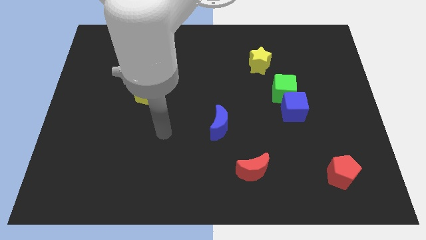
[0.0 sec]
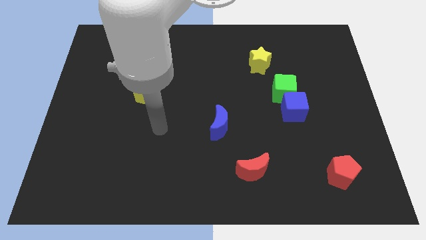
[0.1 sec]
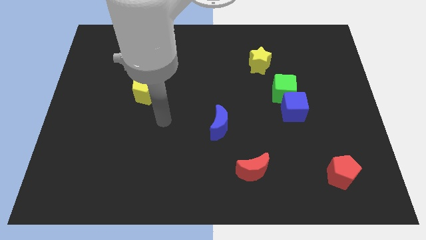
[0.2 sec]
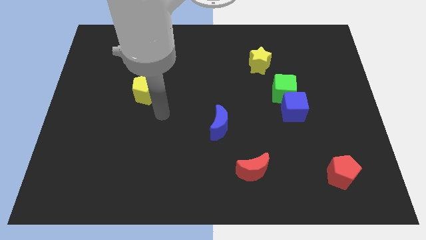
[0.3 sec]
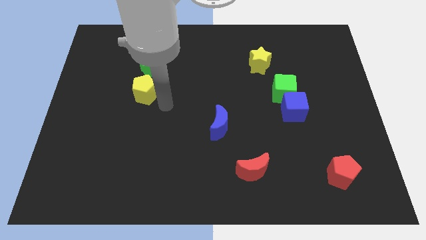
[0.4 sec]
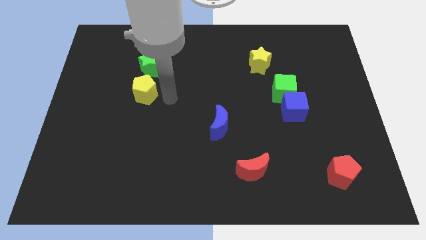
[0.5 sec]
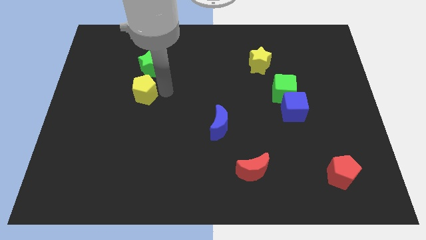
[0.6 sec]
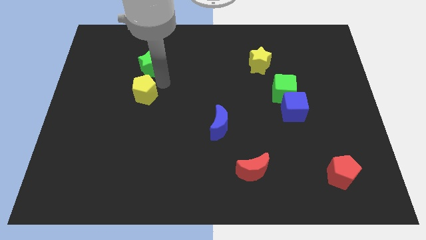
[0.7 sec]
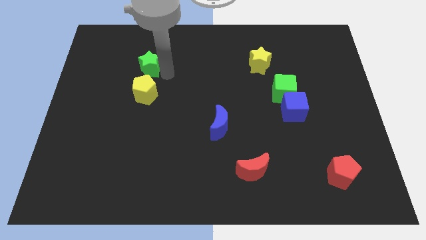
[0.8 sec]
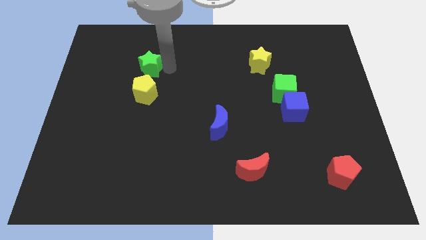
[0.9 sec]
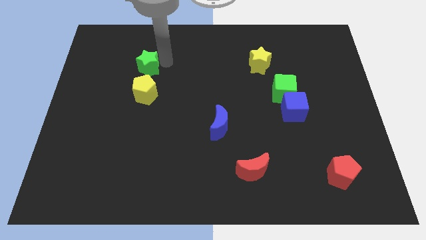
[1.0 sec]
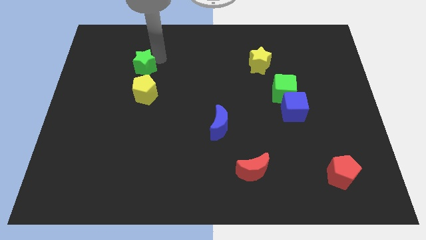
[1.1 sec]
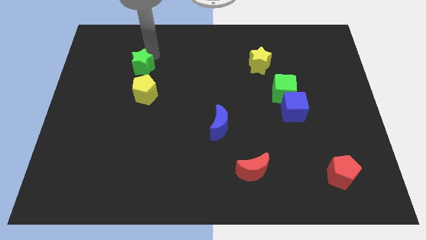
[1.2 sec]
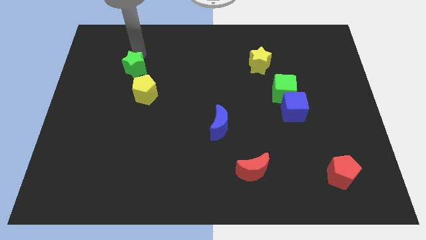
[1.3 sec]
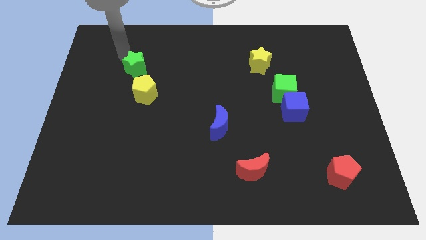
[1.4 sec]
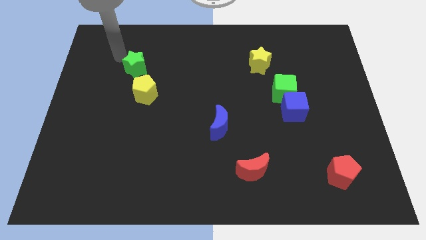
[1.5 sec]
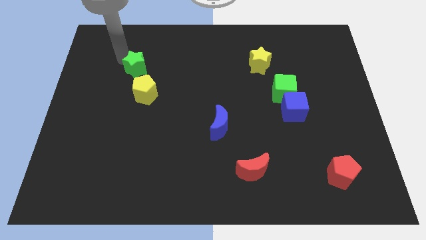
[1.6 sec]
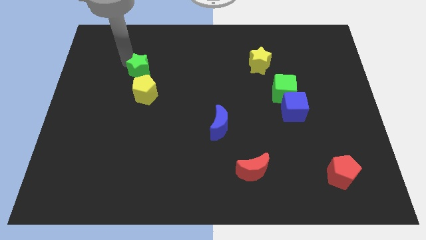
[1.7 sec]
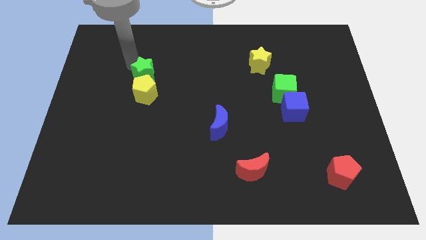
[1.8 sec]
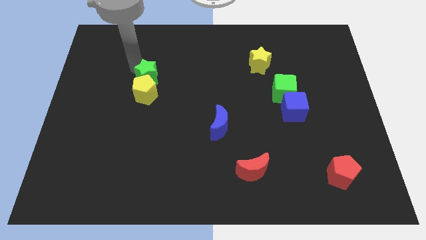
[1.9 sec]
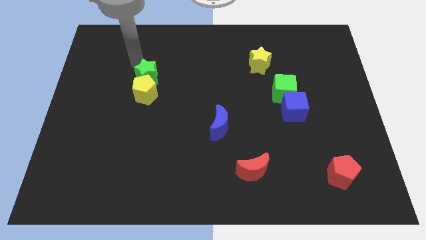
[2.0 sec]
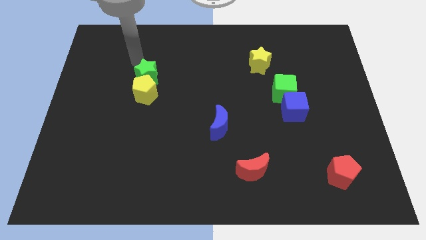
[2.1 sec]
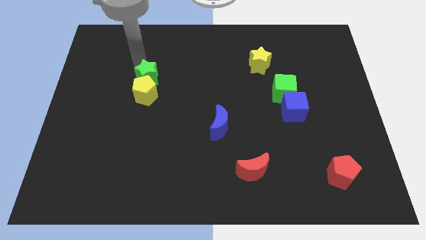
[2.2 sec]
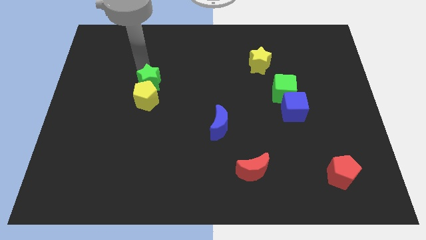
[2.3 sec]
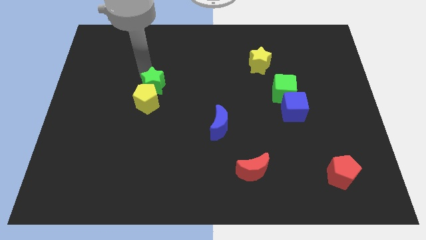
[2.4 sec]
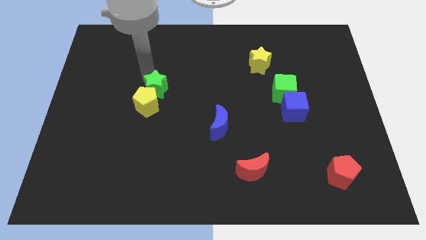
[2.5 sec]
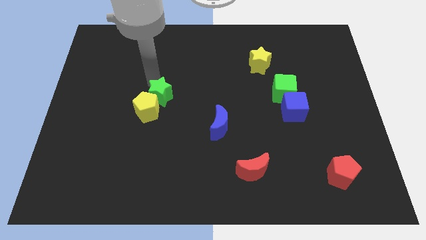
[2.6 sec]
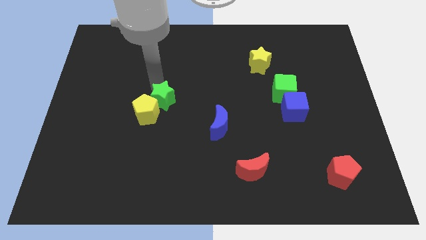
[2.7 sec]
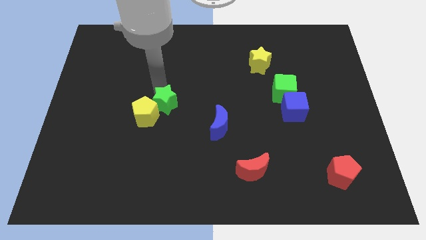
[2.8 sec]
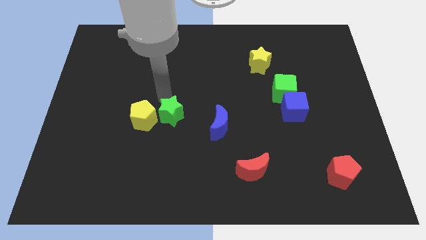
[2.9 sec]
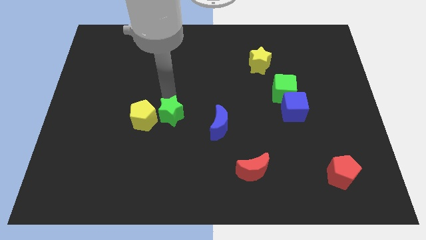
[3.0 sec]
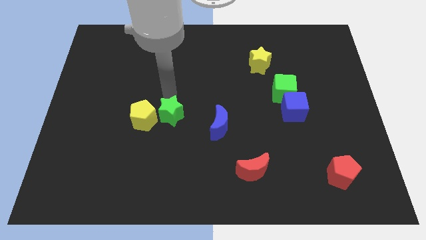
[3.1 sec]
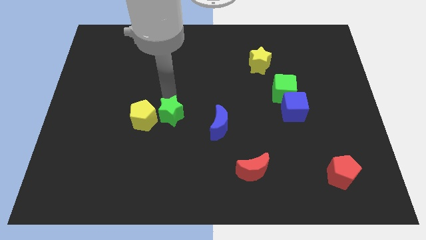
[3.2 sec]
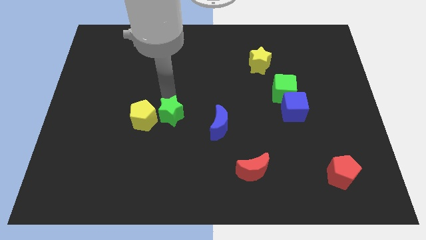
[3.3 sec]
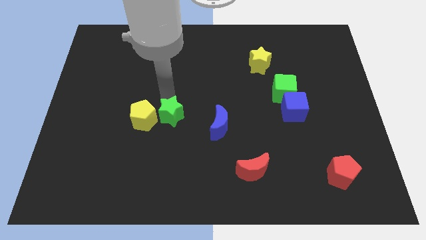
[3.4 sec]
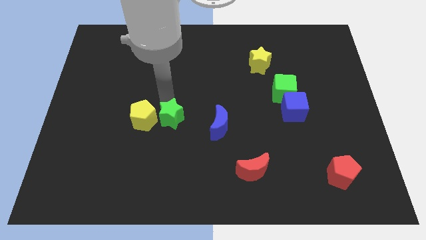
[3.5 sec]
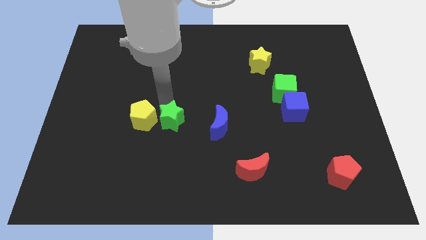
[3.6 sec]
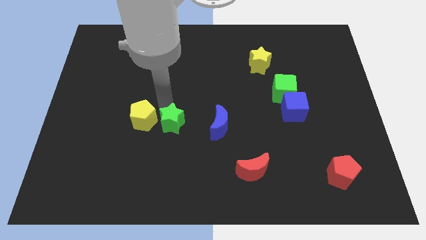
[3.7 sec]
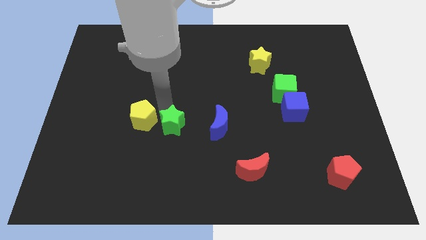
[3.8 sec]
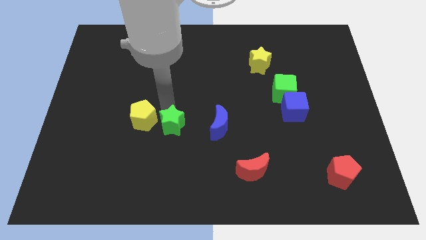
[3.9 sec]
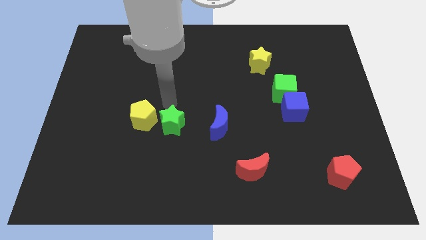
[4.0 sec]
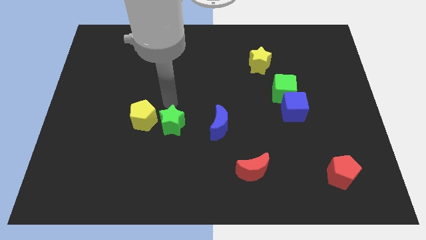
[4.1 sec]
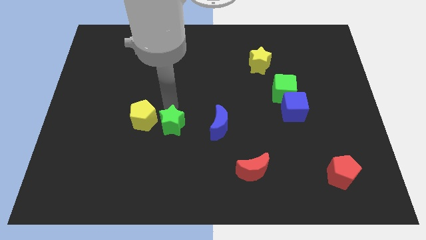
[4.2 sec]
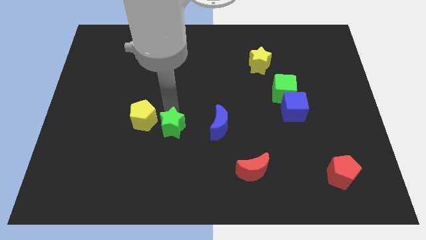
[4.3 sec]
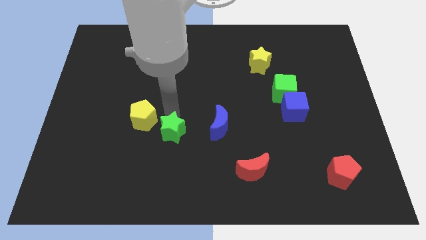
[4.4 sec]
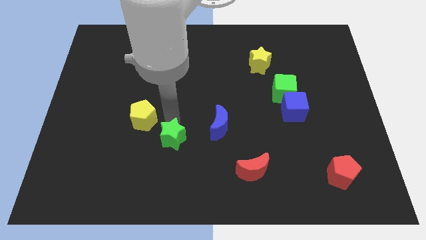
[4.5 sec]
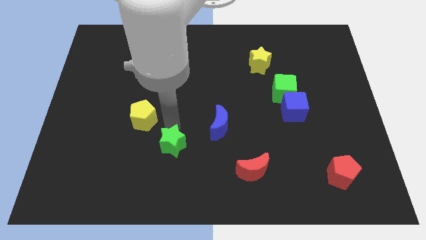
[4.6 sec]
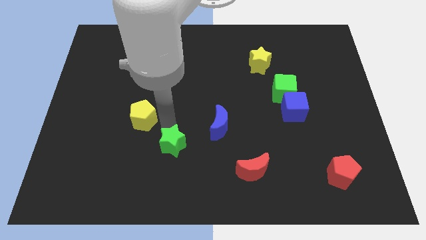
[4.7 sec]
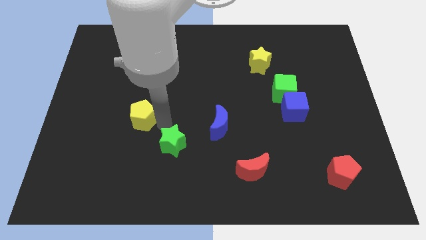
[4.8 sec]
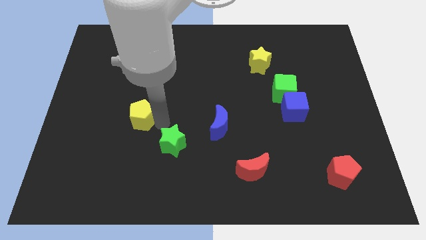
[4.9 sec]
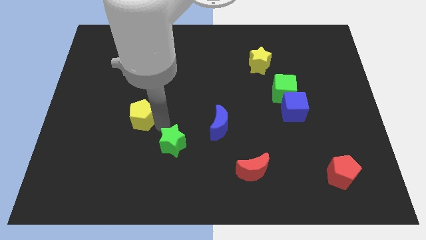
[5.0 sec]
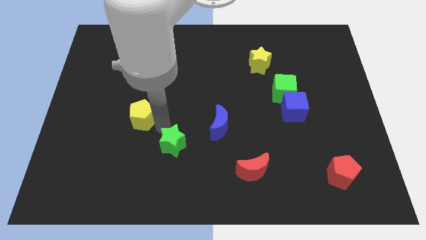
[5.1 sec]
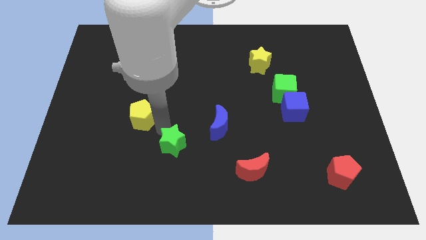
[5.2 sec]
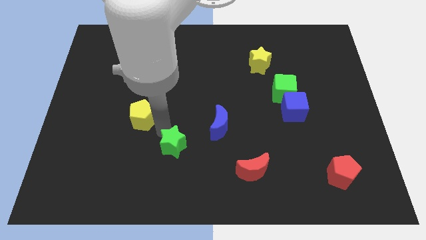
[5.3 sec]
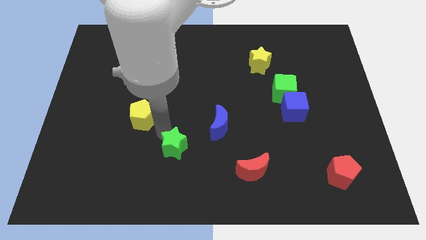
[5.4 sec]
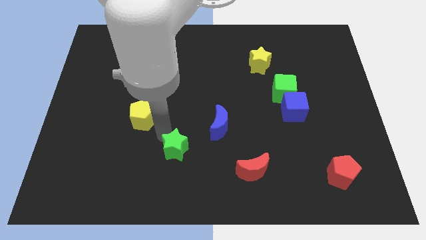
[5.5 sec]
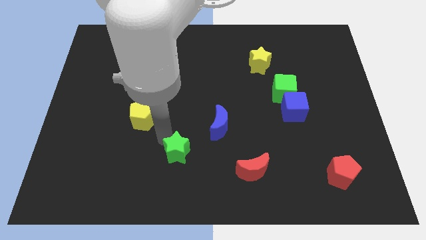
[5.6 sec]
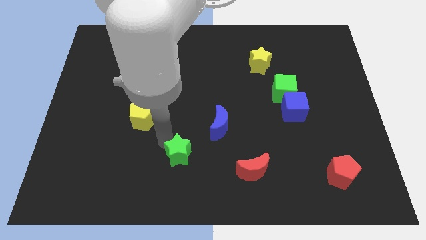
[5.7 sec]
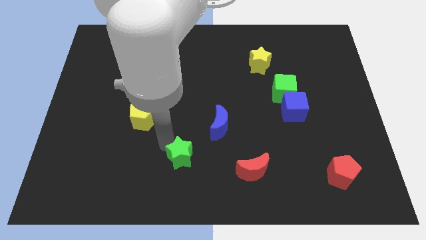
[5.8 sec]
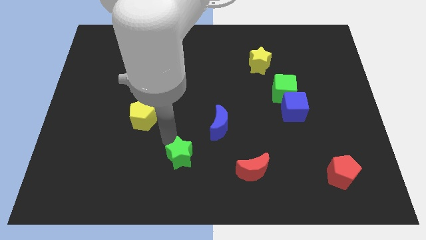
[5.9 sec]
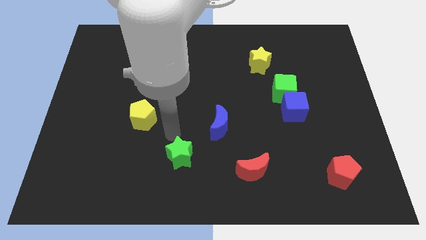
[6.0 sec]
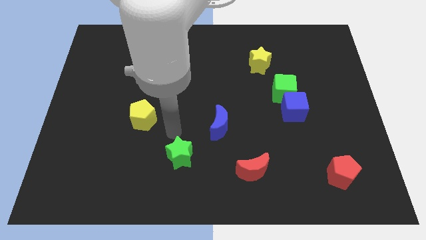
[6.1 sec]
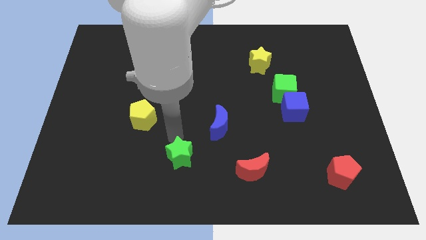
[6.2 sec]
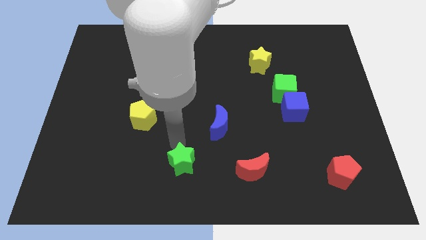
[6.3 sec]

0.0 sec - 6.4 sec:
slide the green star to the bottom
